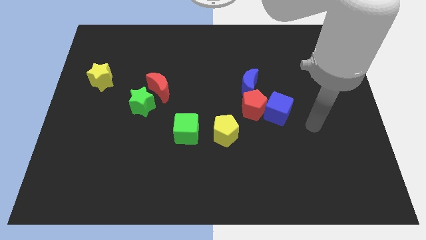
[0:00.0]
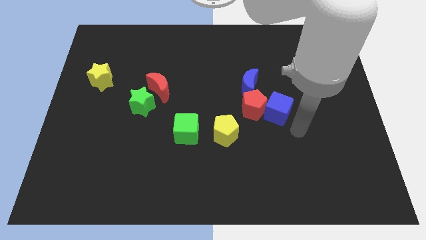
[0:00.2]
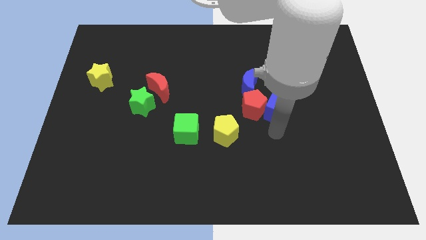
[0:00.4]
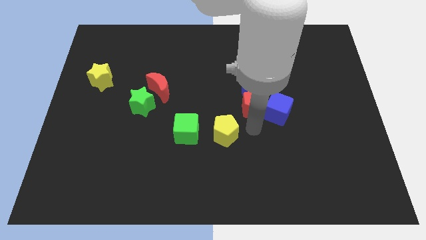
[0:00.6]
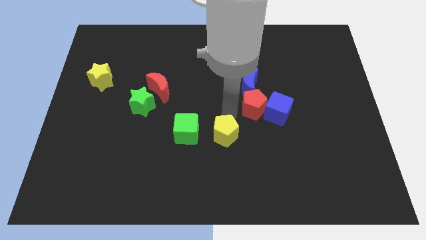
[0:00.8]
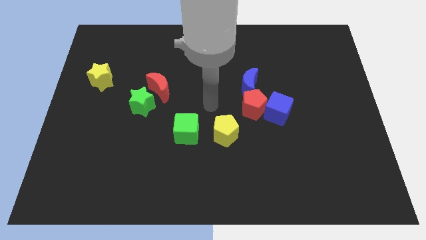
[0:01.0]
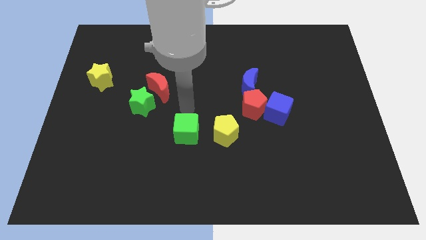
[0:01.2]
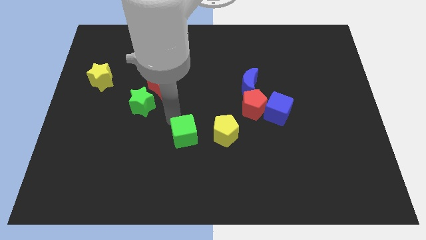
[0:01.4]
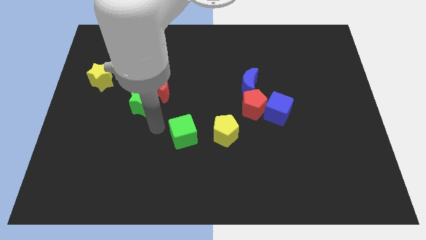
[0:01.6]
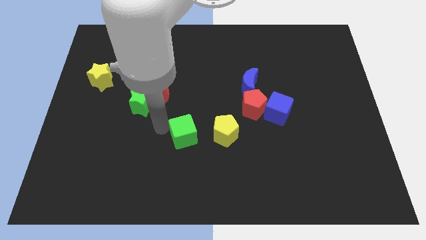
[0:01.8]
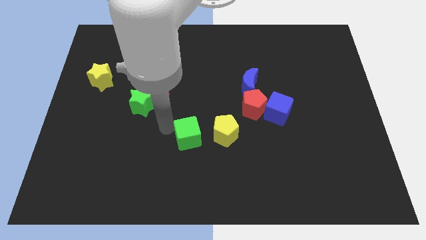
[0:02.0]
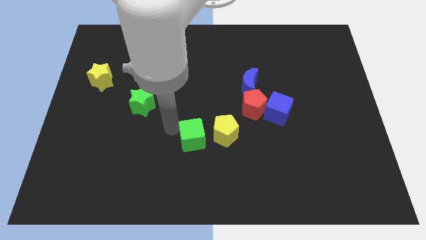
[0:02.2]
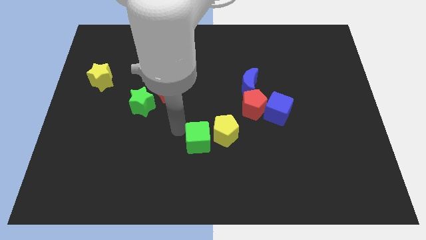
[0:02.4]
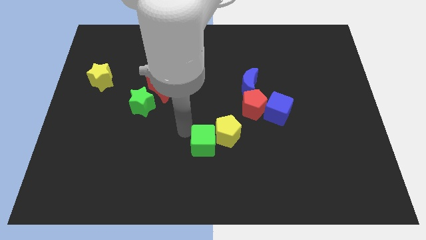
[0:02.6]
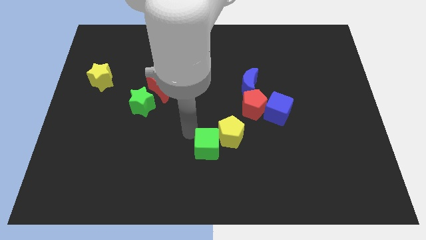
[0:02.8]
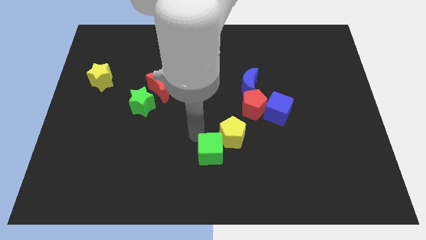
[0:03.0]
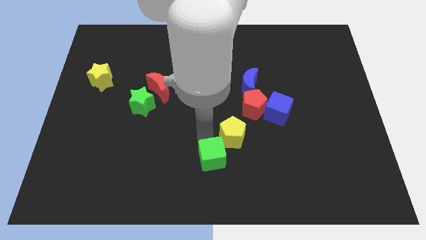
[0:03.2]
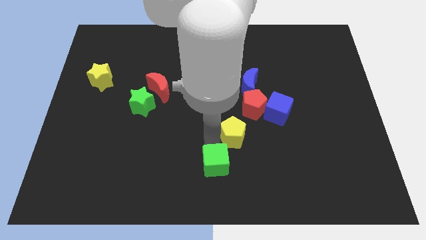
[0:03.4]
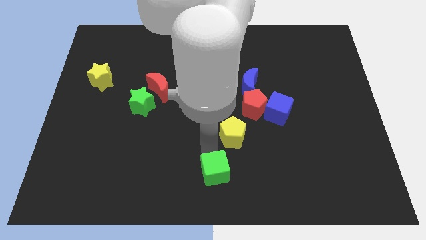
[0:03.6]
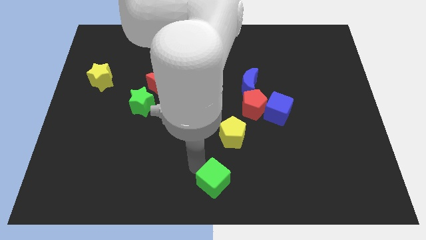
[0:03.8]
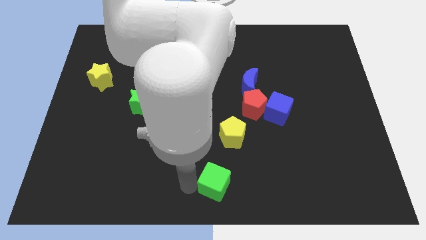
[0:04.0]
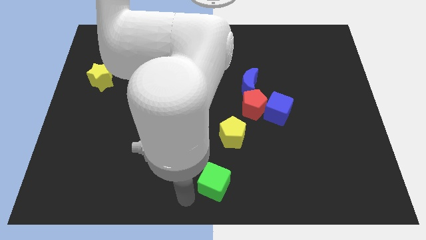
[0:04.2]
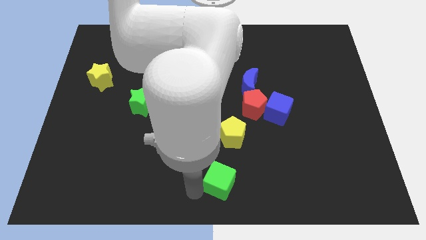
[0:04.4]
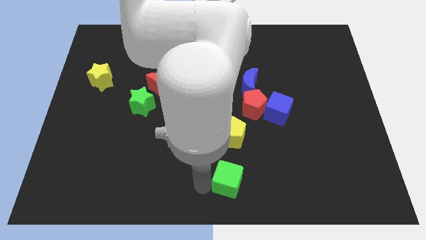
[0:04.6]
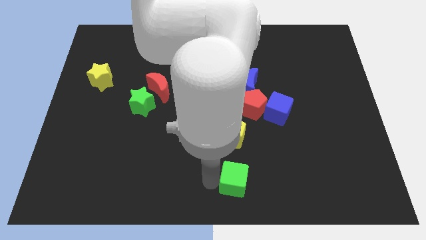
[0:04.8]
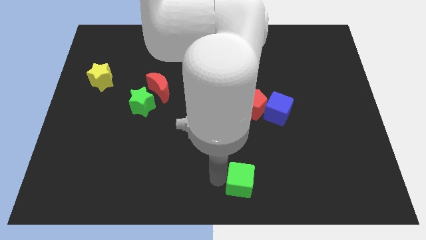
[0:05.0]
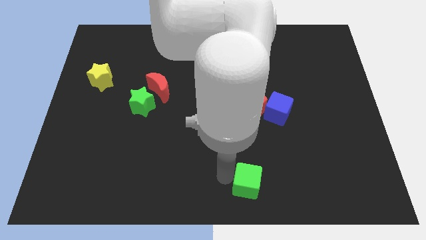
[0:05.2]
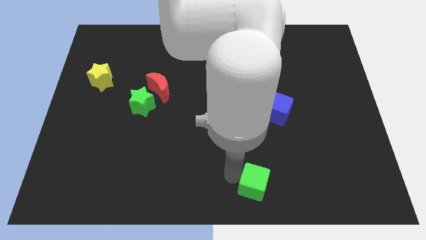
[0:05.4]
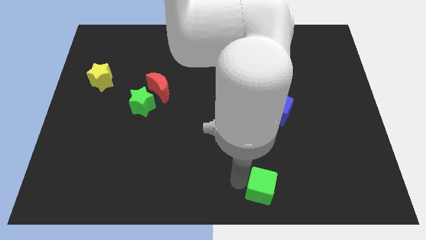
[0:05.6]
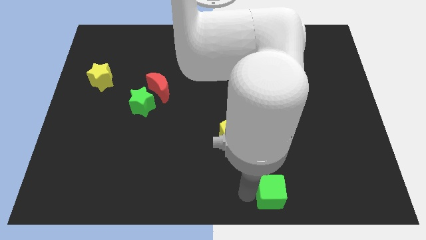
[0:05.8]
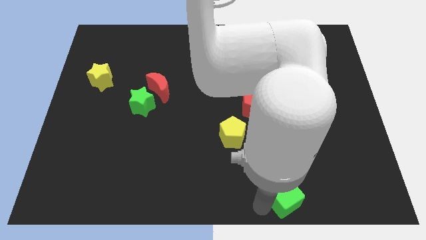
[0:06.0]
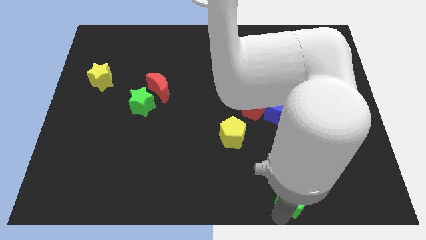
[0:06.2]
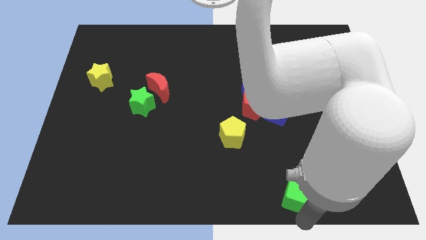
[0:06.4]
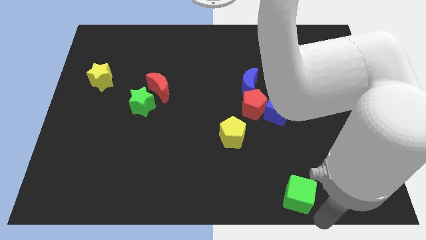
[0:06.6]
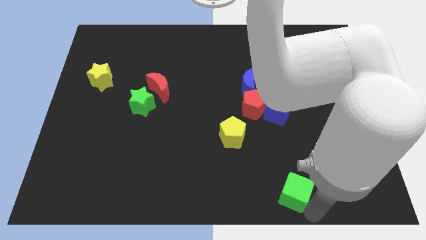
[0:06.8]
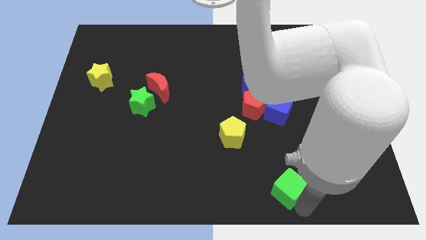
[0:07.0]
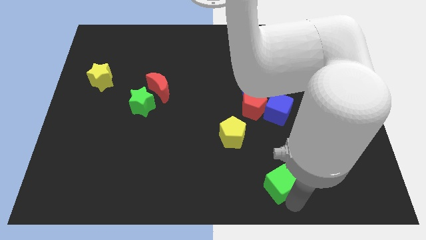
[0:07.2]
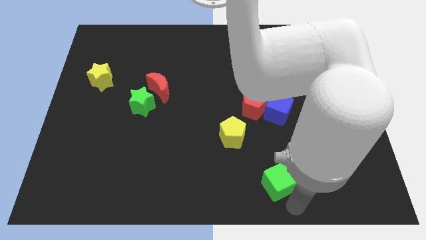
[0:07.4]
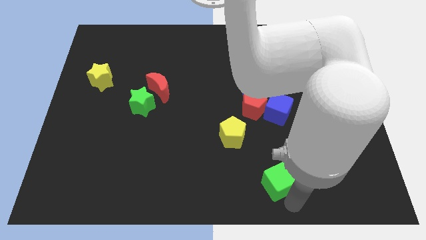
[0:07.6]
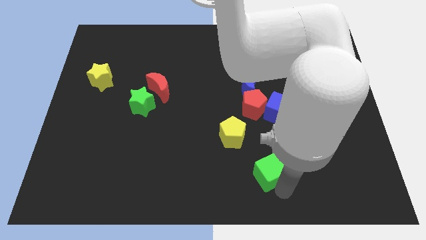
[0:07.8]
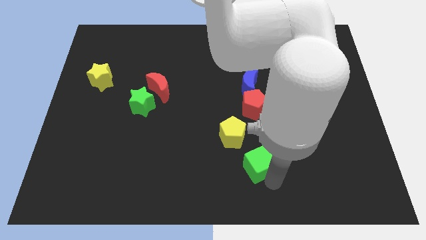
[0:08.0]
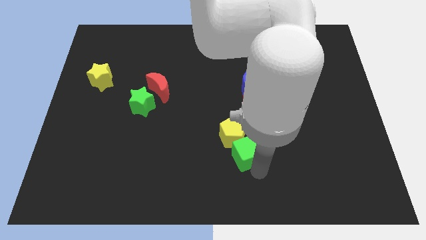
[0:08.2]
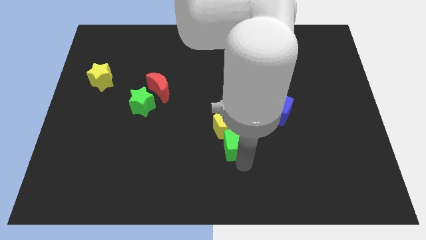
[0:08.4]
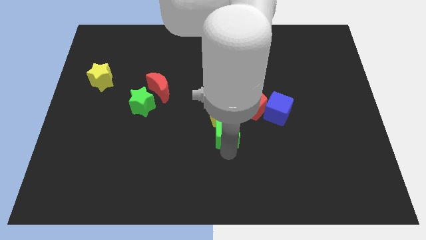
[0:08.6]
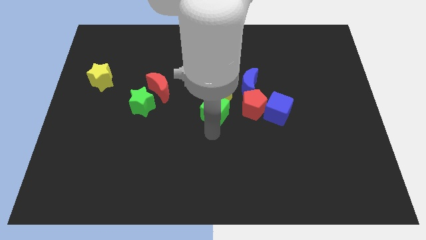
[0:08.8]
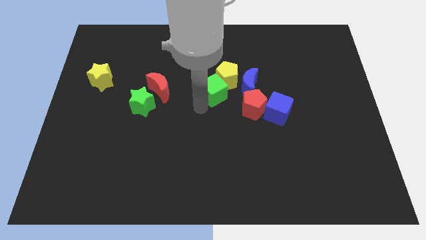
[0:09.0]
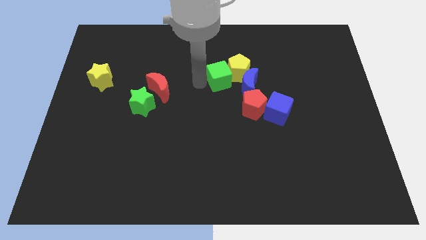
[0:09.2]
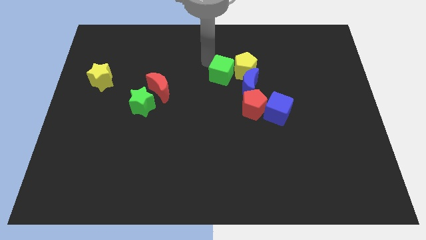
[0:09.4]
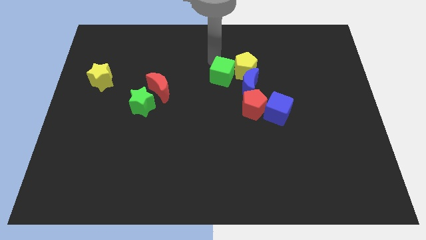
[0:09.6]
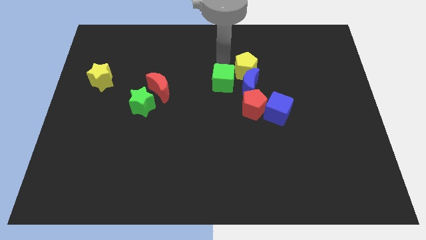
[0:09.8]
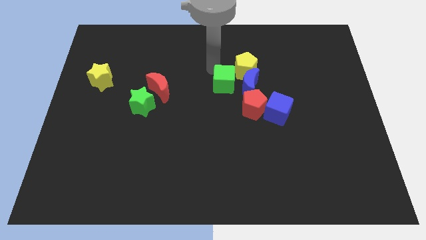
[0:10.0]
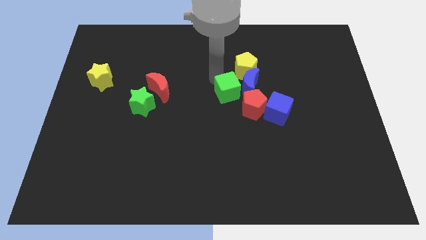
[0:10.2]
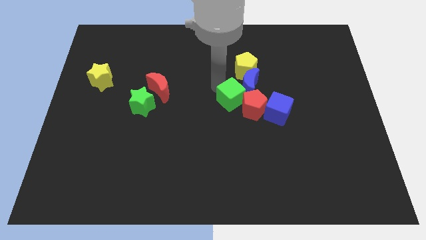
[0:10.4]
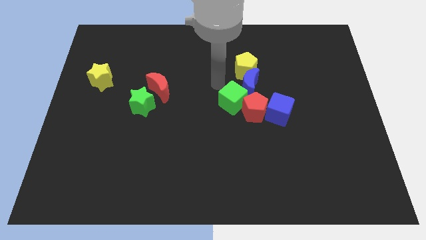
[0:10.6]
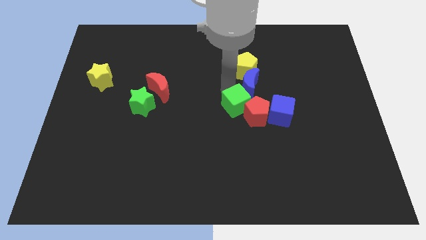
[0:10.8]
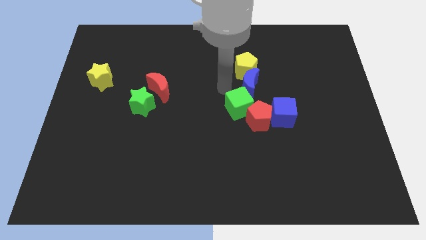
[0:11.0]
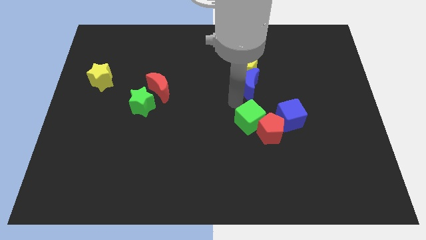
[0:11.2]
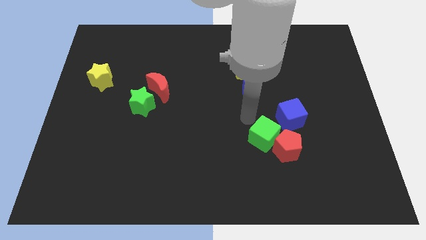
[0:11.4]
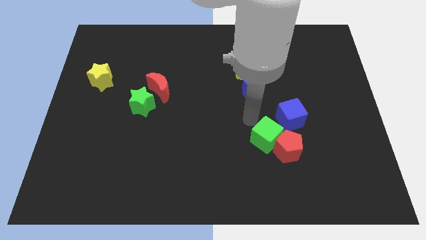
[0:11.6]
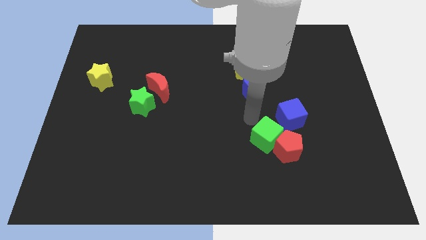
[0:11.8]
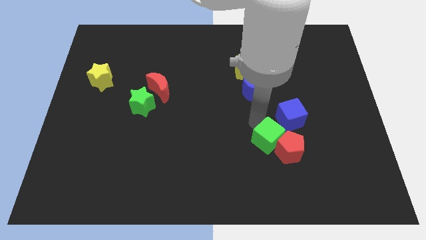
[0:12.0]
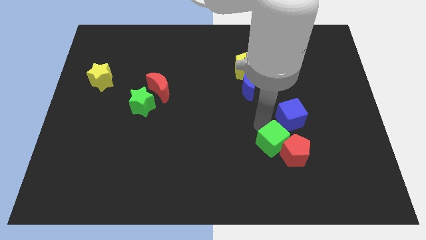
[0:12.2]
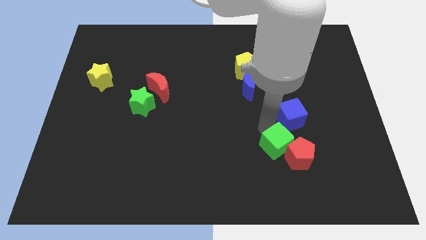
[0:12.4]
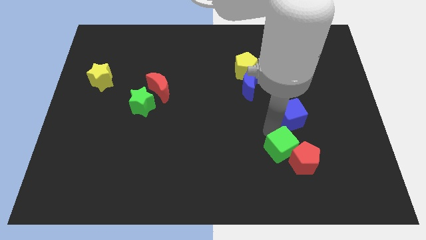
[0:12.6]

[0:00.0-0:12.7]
slide the green cube to the right

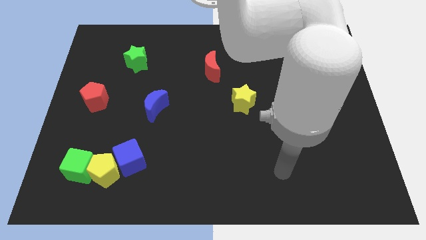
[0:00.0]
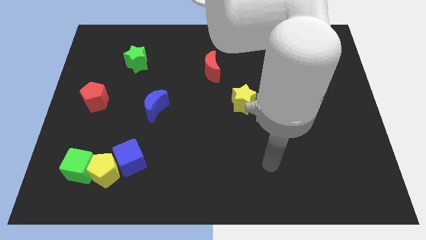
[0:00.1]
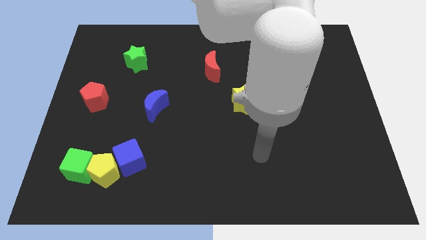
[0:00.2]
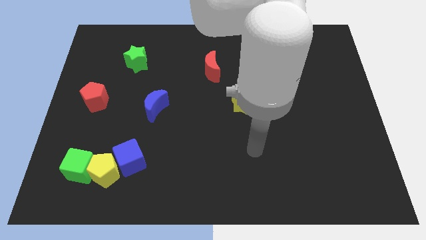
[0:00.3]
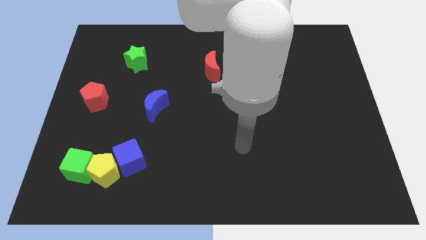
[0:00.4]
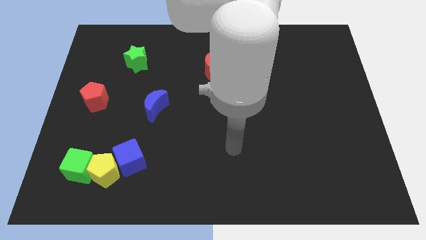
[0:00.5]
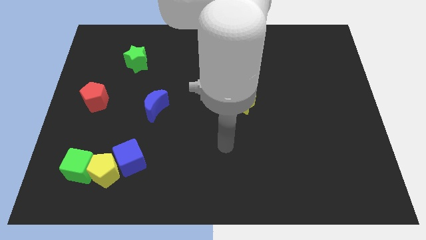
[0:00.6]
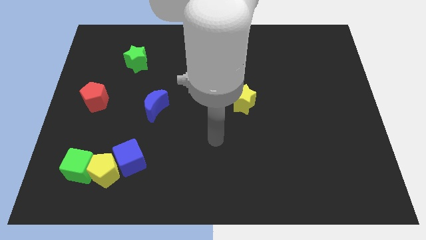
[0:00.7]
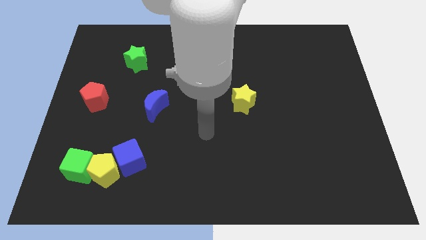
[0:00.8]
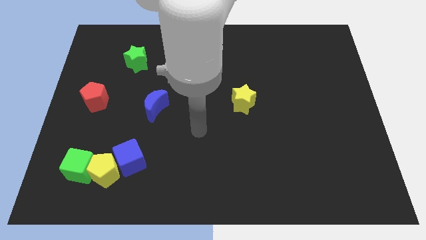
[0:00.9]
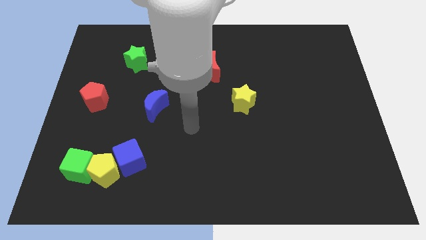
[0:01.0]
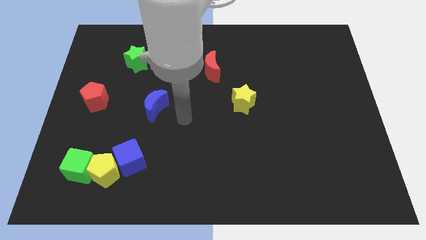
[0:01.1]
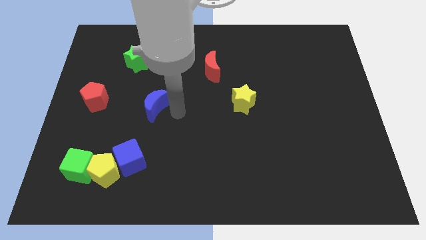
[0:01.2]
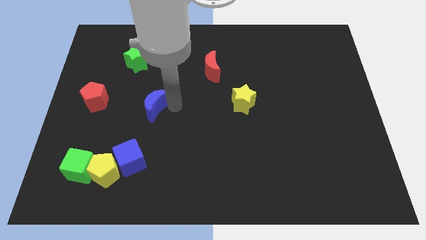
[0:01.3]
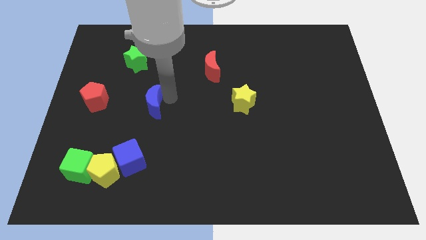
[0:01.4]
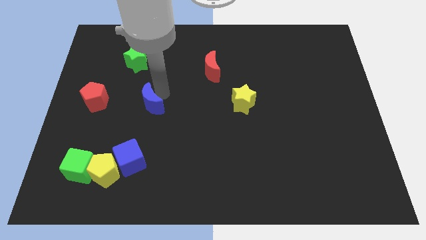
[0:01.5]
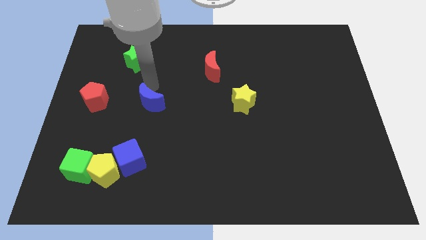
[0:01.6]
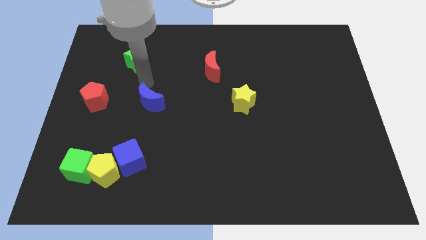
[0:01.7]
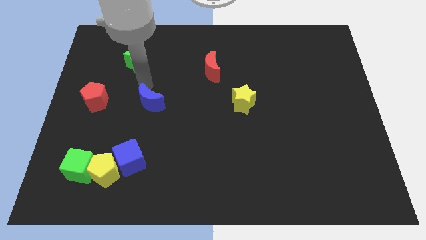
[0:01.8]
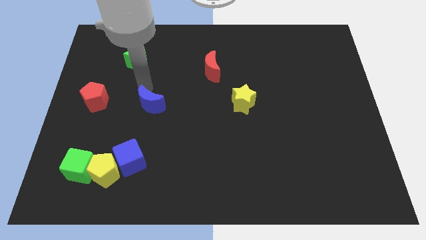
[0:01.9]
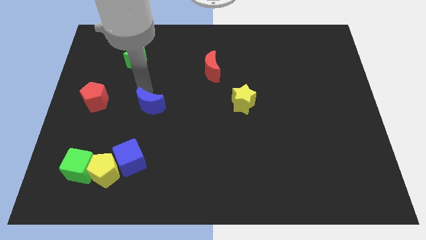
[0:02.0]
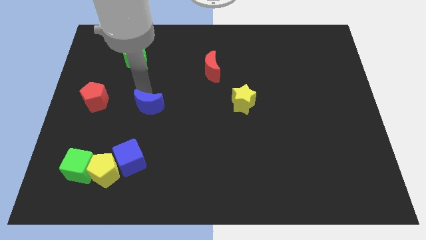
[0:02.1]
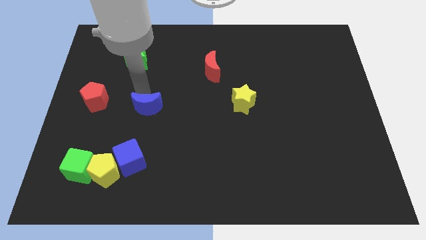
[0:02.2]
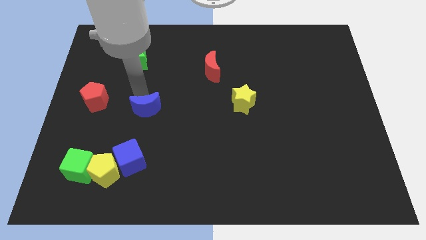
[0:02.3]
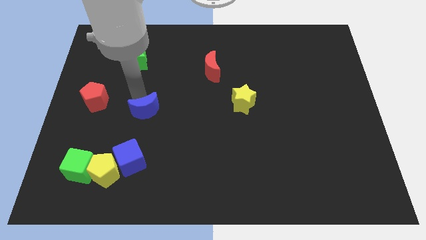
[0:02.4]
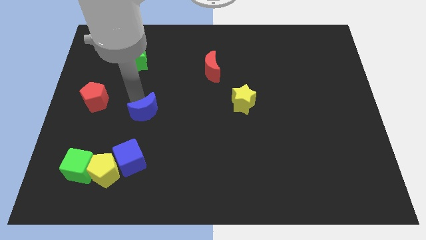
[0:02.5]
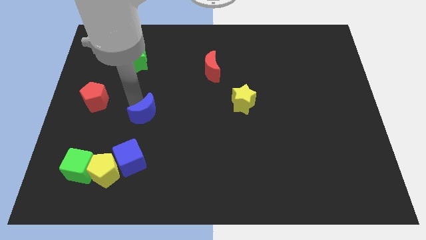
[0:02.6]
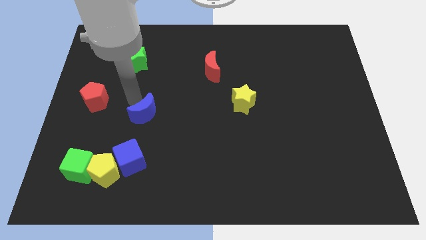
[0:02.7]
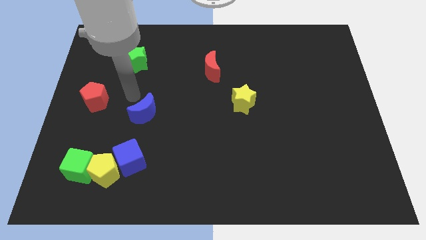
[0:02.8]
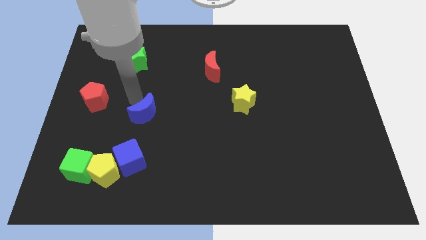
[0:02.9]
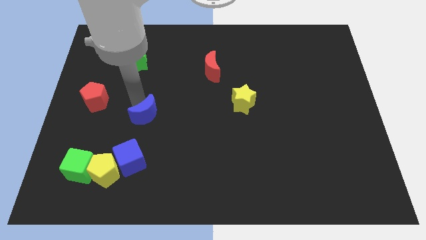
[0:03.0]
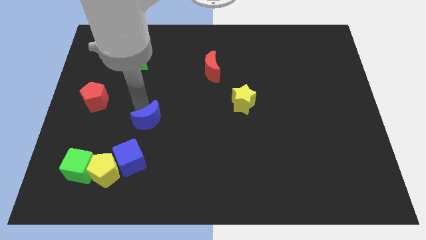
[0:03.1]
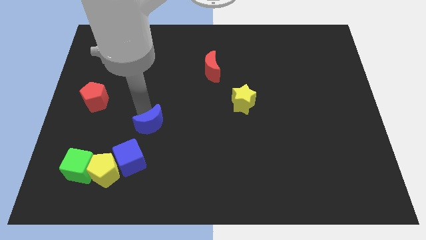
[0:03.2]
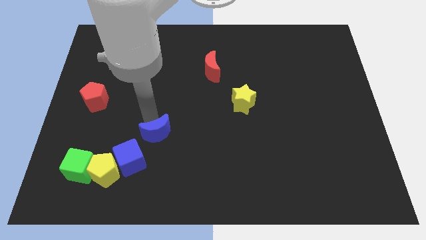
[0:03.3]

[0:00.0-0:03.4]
slightly push the blue moon downwards
